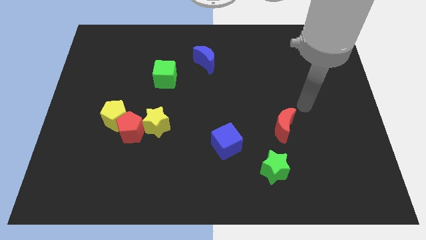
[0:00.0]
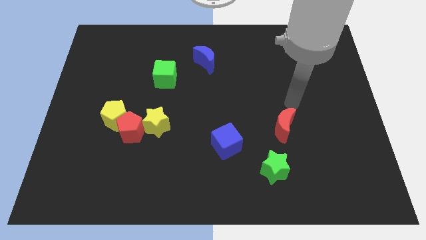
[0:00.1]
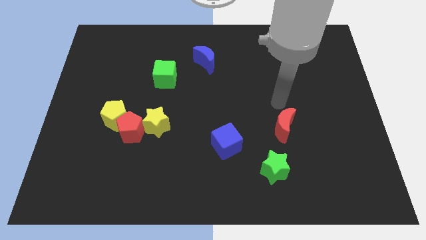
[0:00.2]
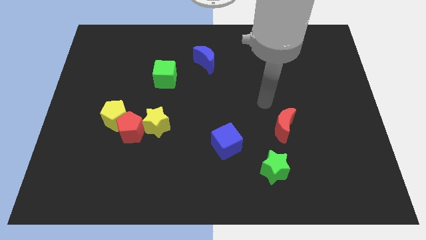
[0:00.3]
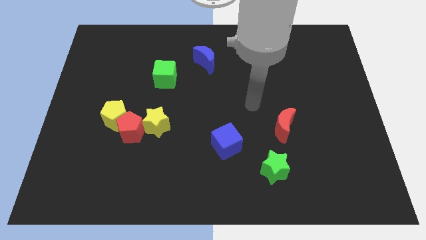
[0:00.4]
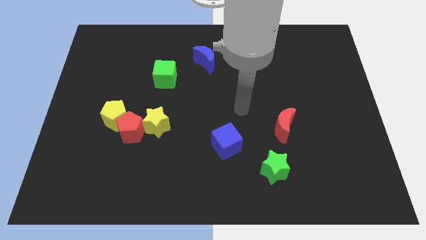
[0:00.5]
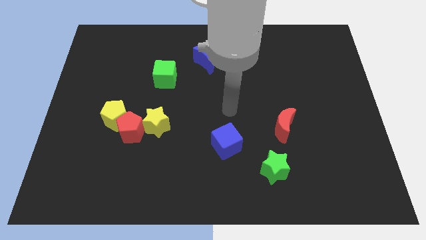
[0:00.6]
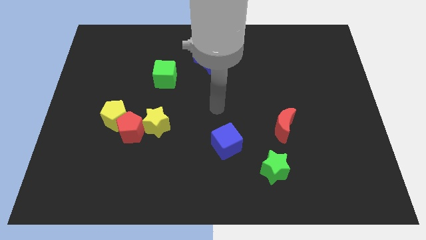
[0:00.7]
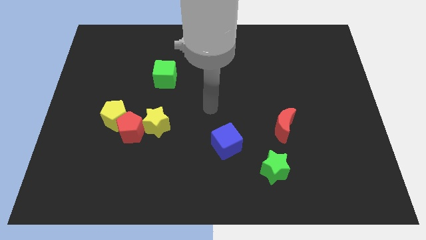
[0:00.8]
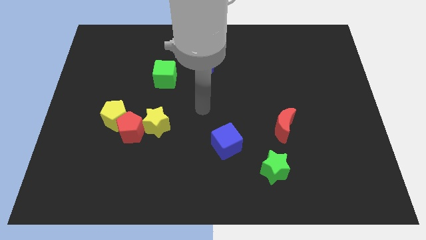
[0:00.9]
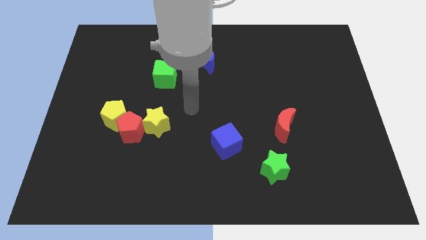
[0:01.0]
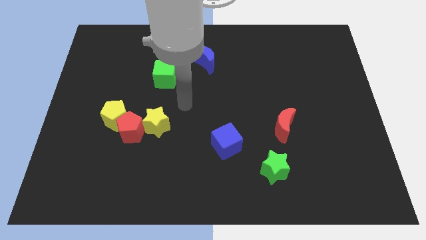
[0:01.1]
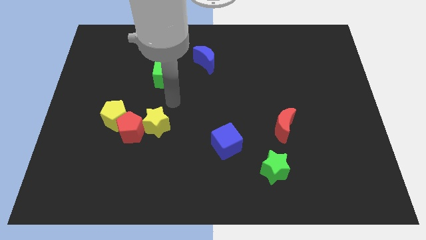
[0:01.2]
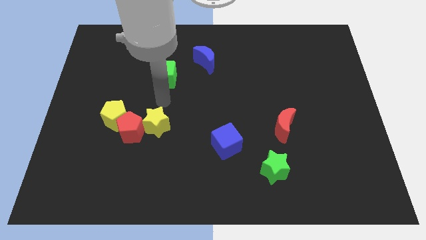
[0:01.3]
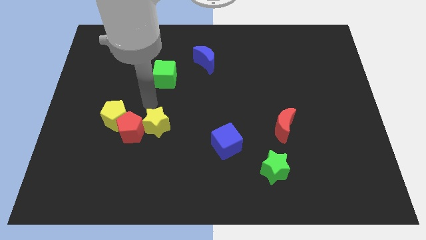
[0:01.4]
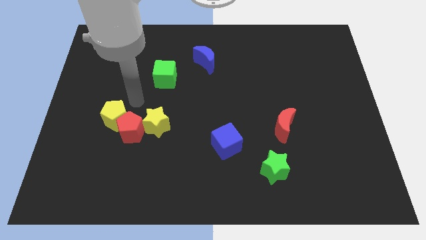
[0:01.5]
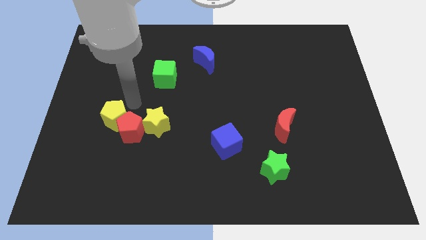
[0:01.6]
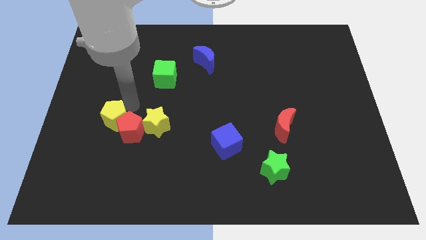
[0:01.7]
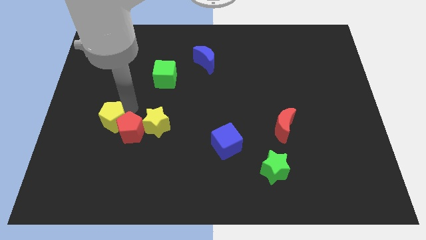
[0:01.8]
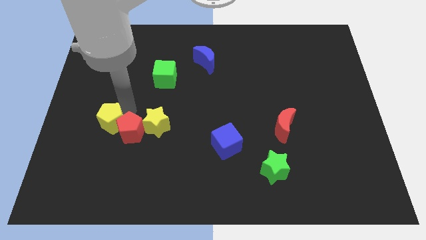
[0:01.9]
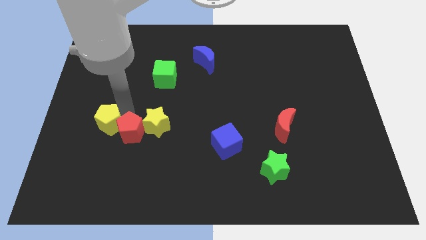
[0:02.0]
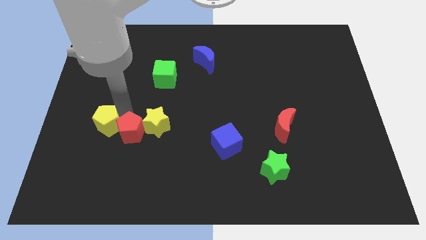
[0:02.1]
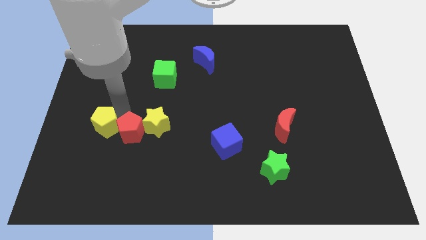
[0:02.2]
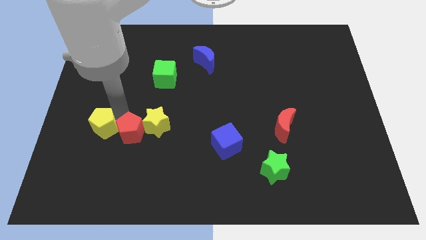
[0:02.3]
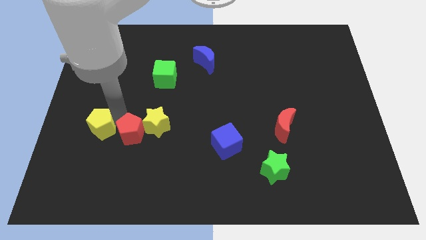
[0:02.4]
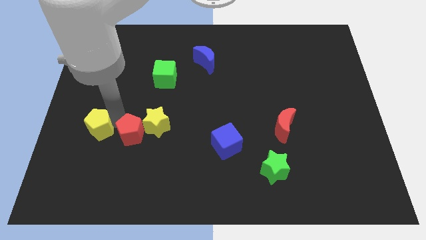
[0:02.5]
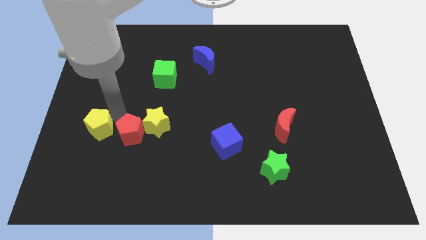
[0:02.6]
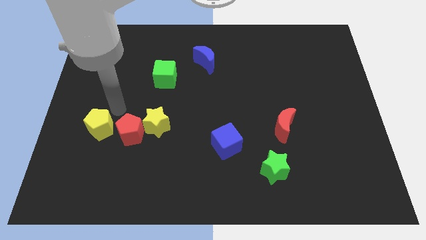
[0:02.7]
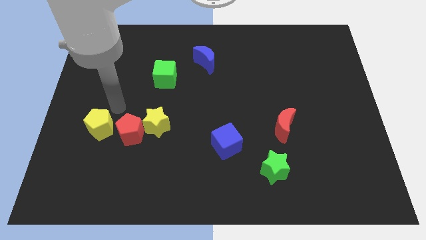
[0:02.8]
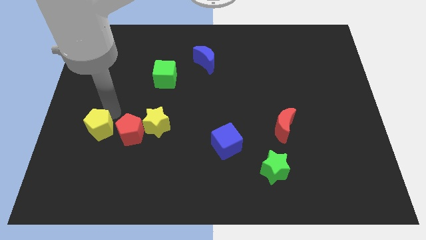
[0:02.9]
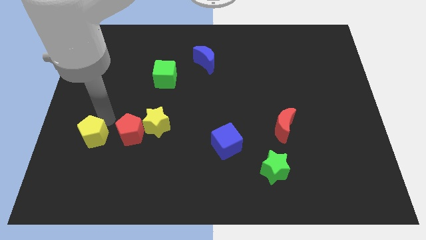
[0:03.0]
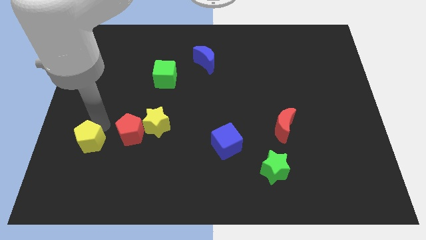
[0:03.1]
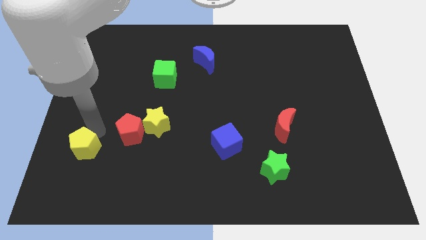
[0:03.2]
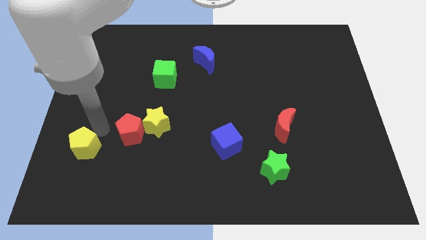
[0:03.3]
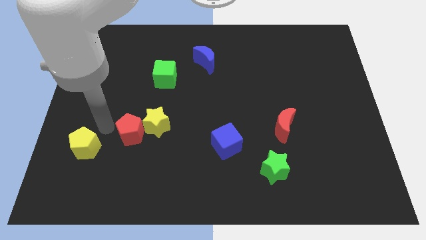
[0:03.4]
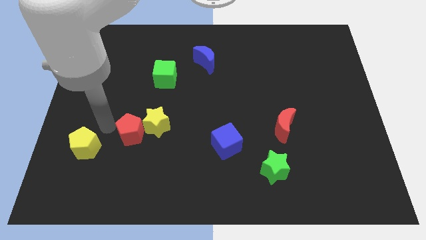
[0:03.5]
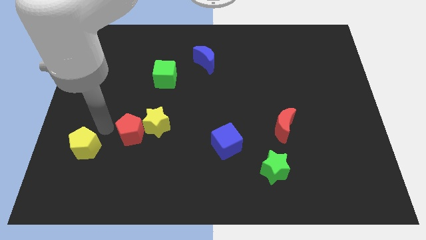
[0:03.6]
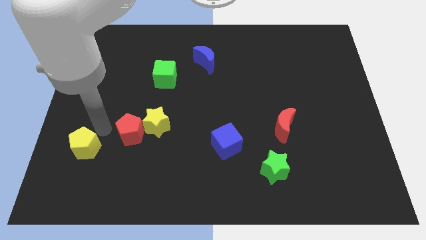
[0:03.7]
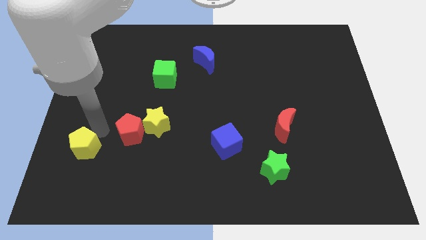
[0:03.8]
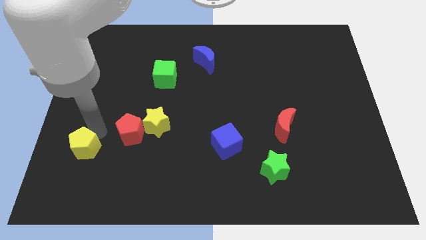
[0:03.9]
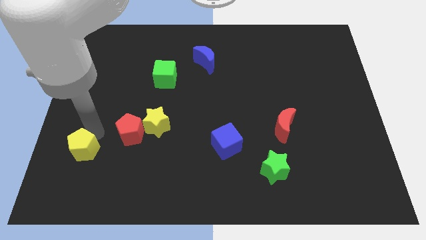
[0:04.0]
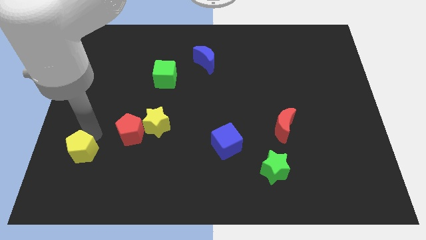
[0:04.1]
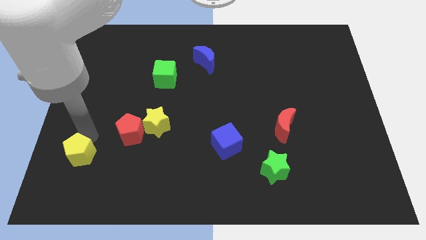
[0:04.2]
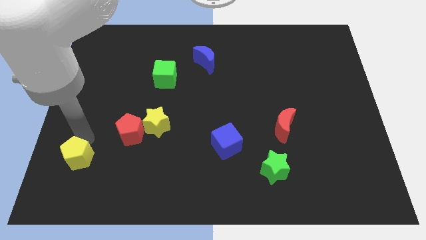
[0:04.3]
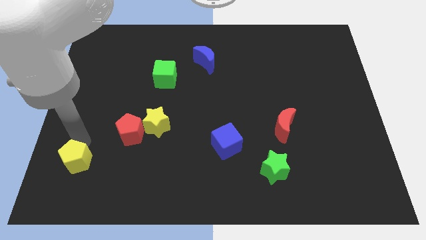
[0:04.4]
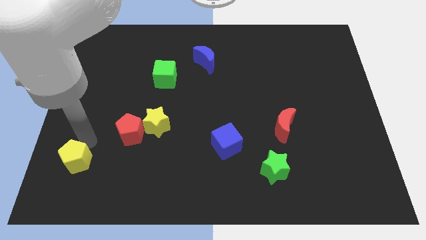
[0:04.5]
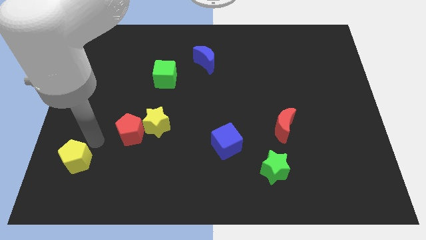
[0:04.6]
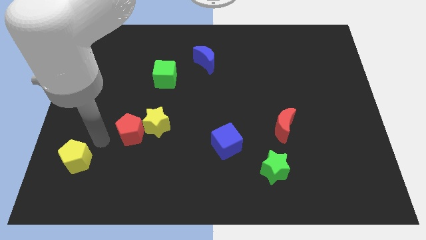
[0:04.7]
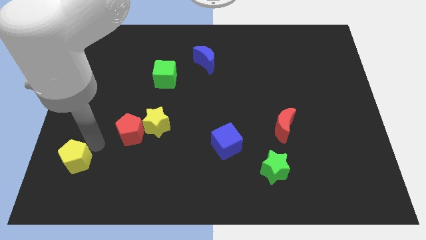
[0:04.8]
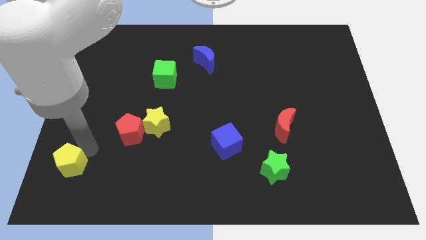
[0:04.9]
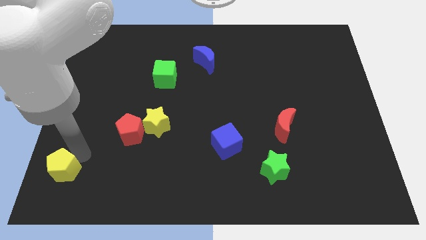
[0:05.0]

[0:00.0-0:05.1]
push the yellow pentagon to the bottom left
